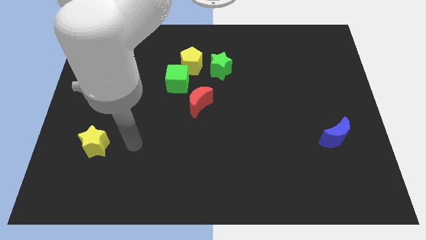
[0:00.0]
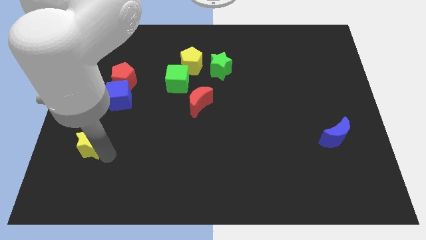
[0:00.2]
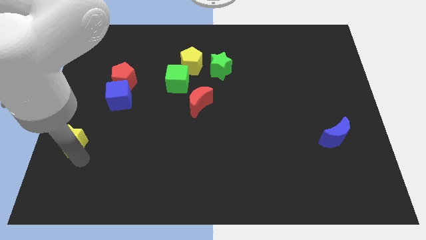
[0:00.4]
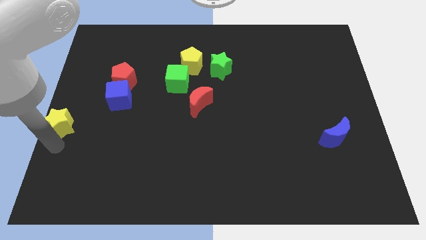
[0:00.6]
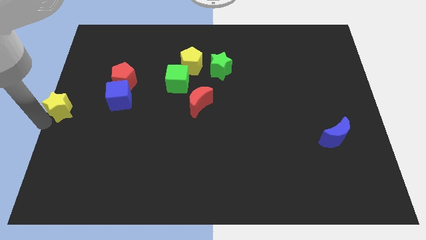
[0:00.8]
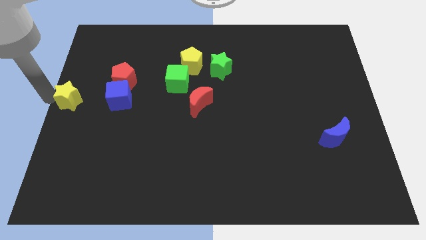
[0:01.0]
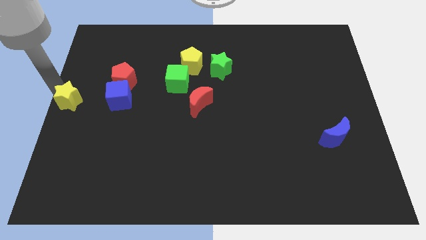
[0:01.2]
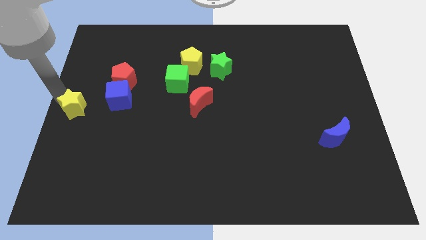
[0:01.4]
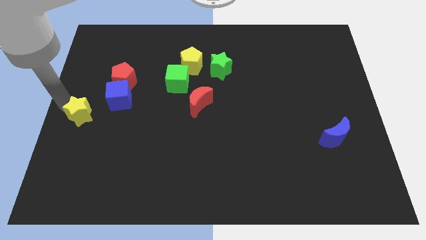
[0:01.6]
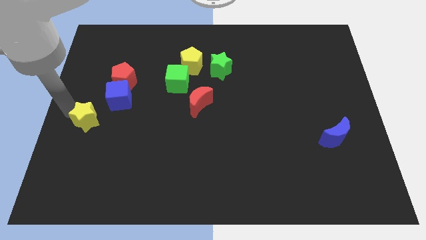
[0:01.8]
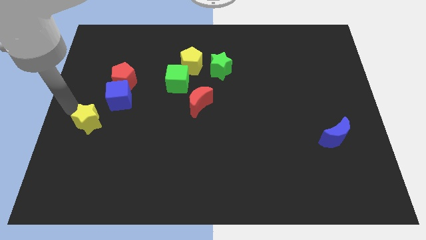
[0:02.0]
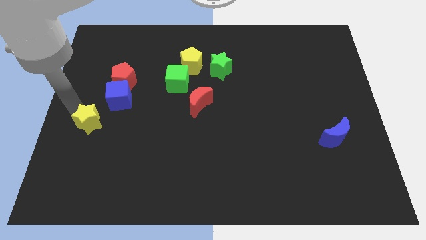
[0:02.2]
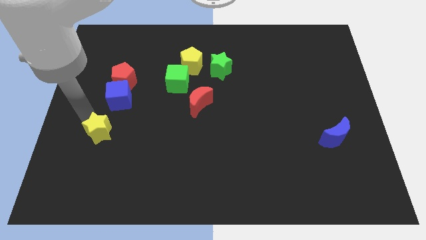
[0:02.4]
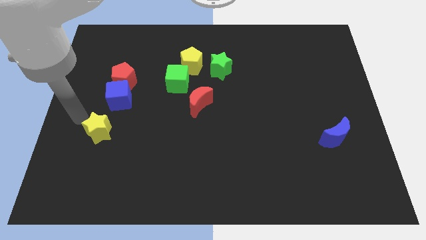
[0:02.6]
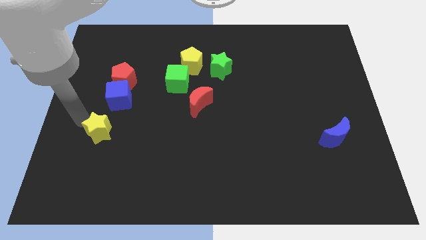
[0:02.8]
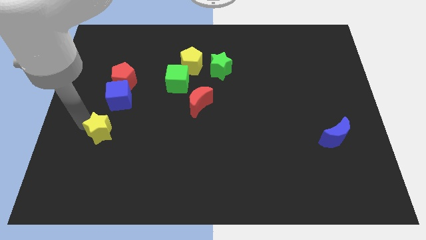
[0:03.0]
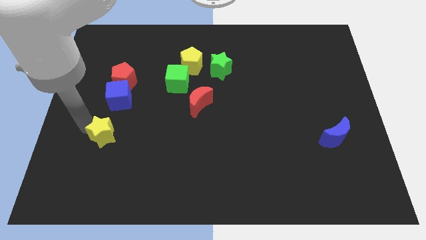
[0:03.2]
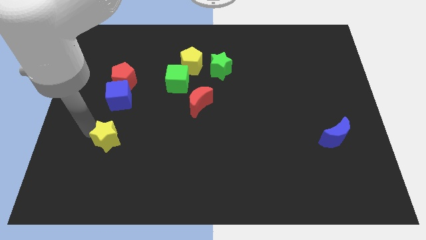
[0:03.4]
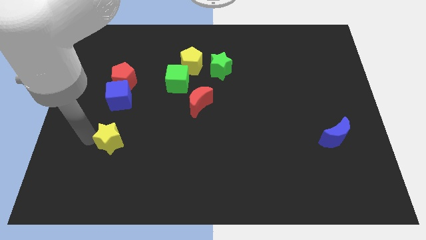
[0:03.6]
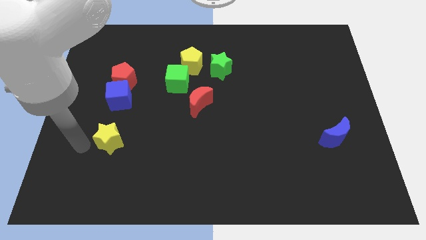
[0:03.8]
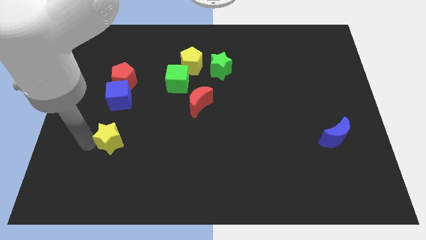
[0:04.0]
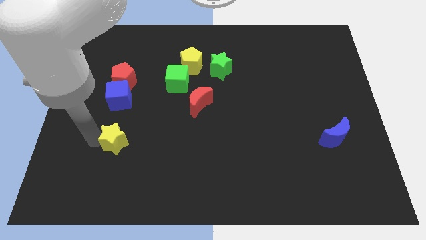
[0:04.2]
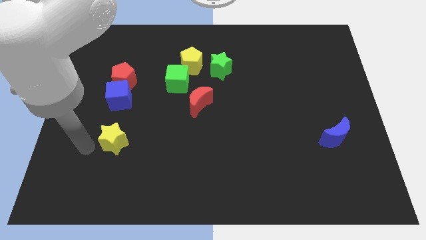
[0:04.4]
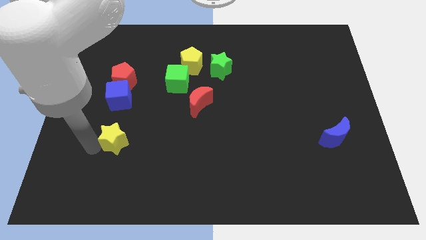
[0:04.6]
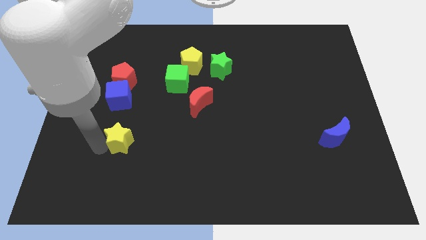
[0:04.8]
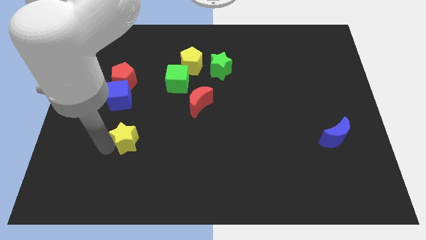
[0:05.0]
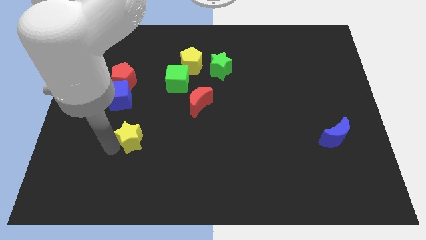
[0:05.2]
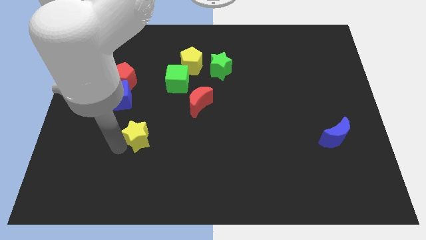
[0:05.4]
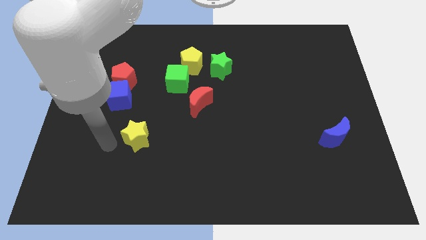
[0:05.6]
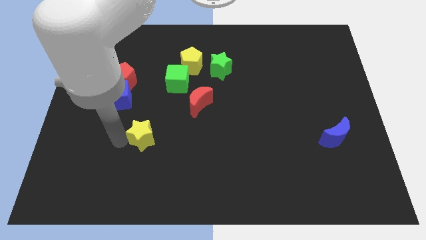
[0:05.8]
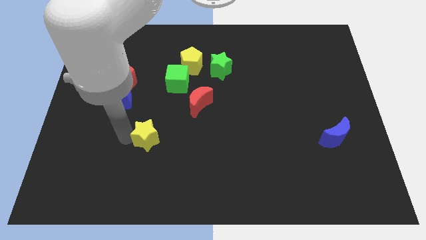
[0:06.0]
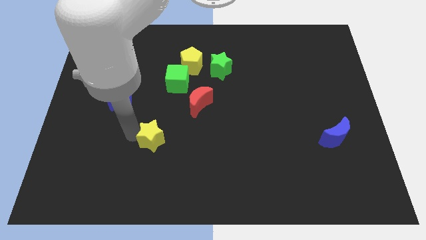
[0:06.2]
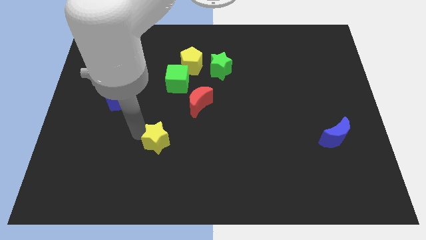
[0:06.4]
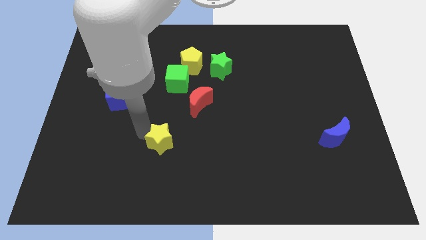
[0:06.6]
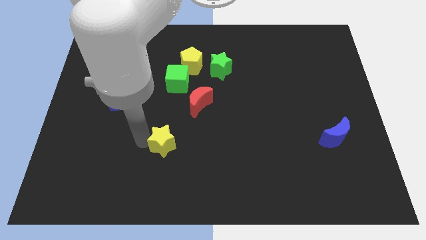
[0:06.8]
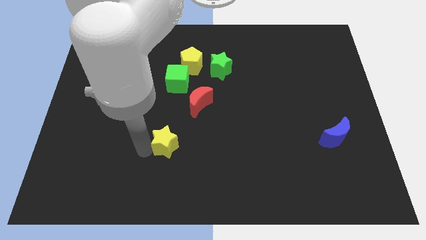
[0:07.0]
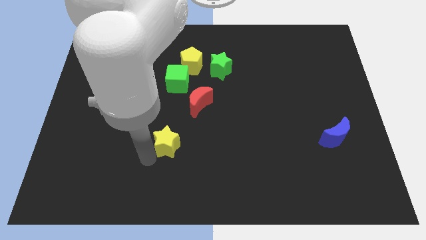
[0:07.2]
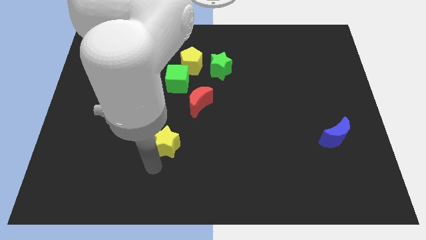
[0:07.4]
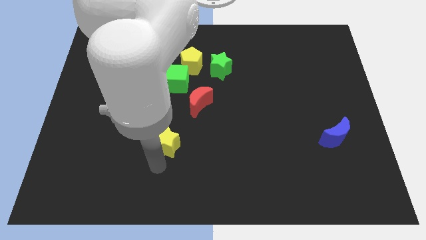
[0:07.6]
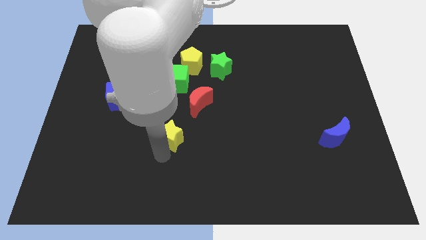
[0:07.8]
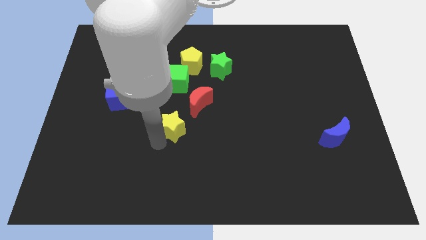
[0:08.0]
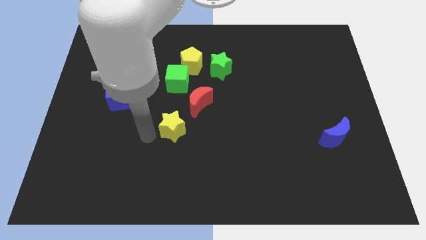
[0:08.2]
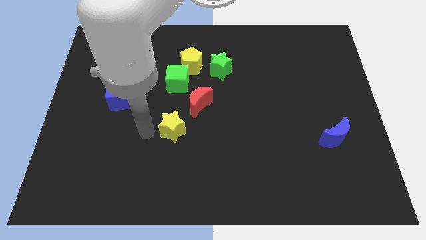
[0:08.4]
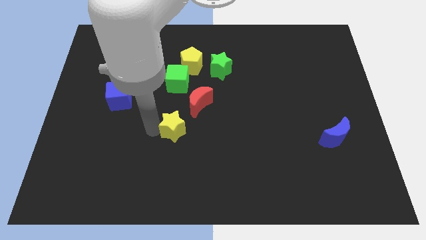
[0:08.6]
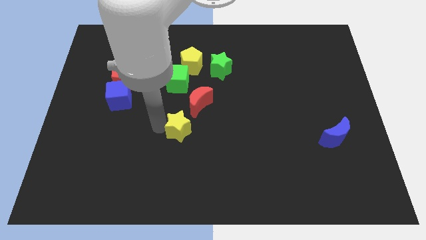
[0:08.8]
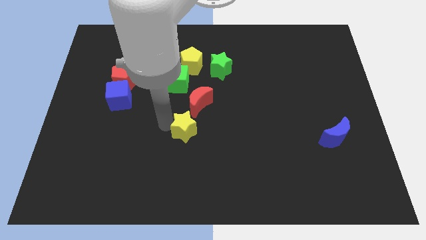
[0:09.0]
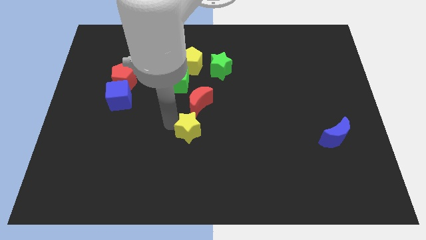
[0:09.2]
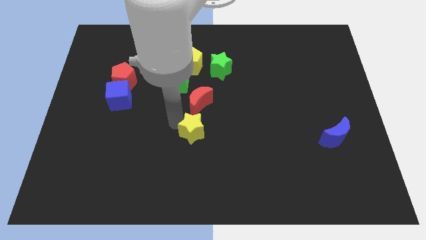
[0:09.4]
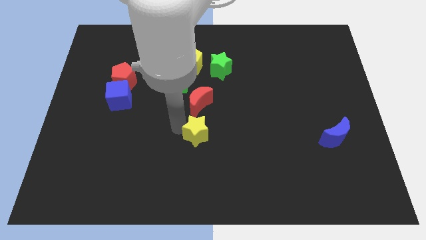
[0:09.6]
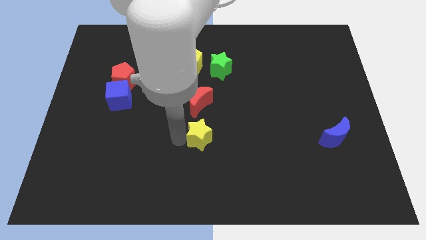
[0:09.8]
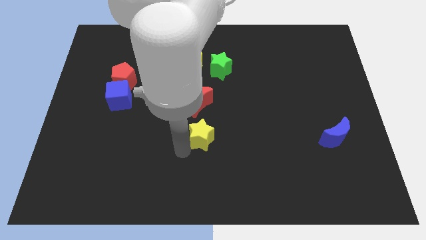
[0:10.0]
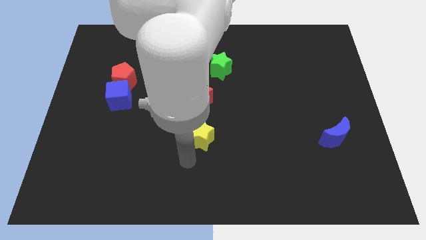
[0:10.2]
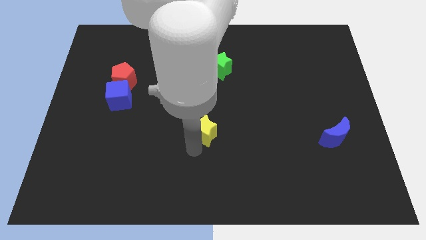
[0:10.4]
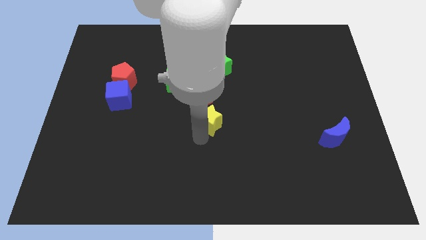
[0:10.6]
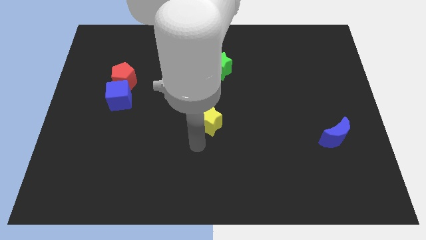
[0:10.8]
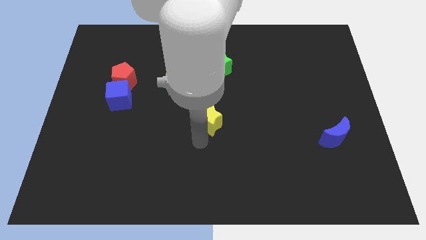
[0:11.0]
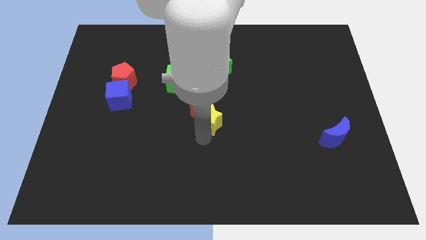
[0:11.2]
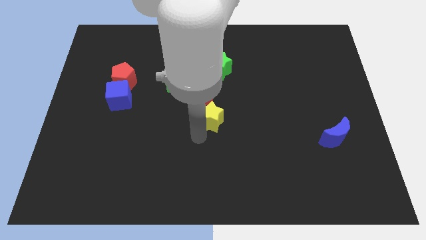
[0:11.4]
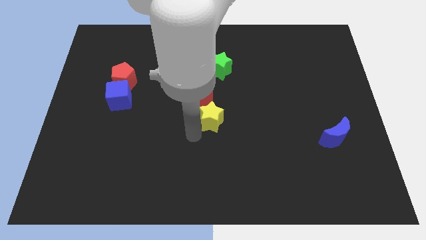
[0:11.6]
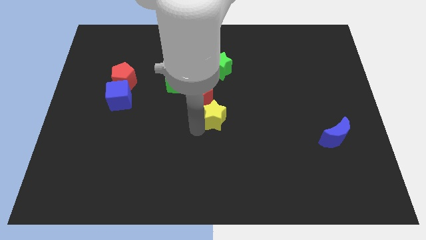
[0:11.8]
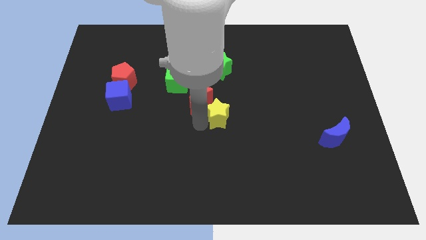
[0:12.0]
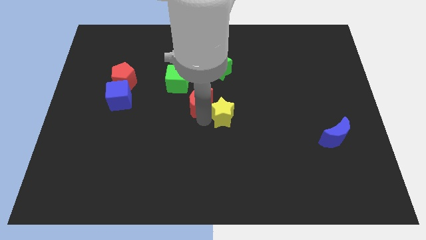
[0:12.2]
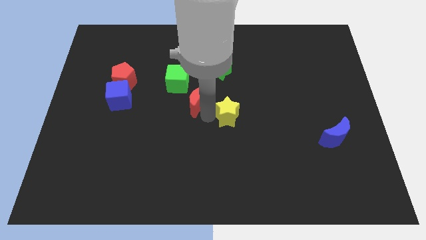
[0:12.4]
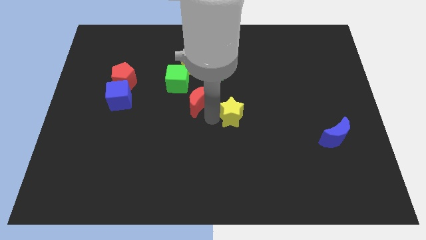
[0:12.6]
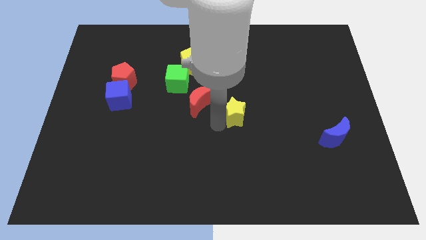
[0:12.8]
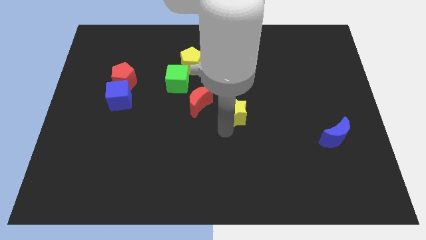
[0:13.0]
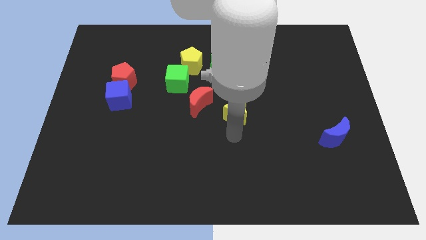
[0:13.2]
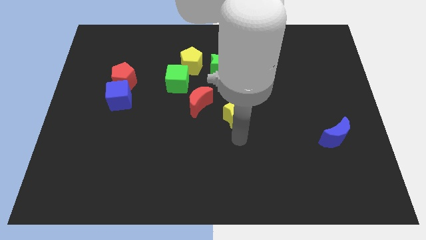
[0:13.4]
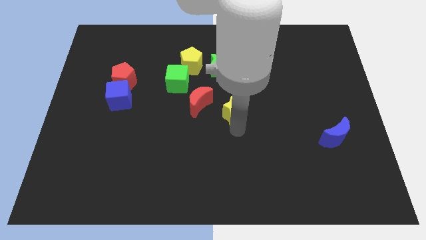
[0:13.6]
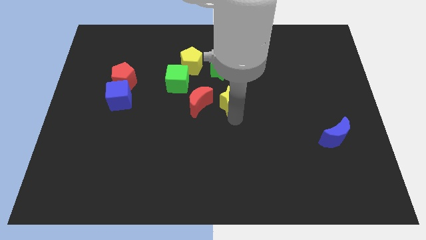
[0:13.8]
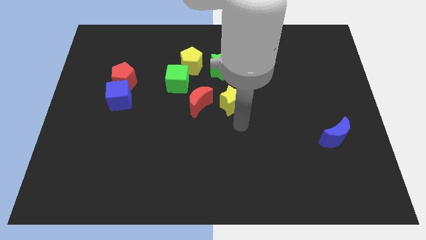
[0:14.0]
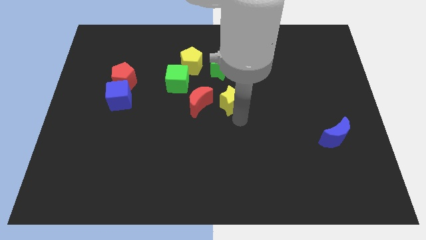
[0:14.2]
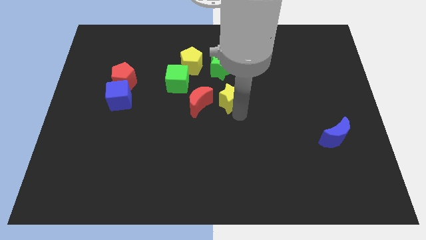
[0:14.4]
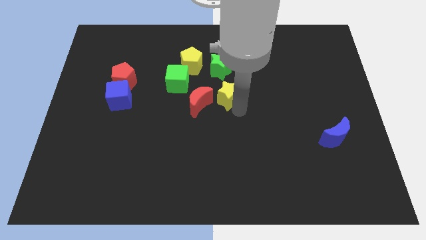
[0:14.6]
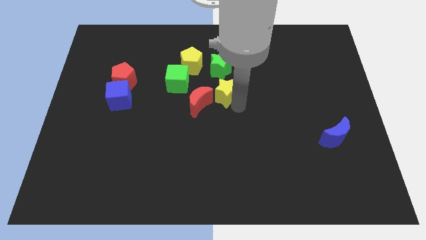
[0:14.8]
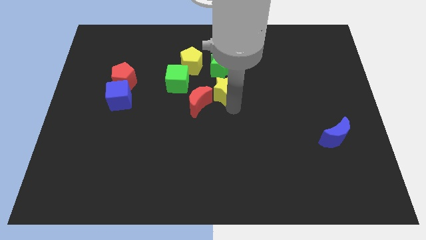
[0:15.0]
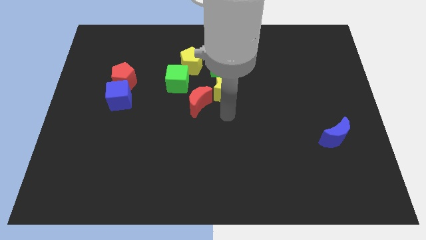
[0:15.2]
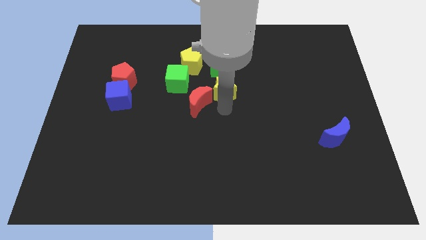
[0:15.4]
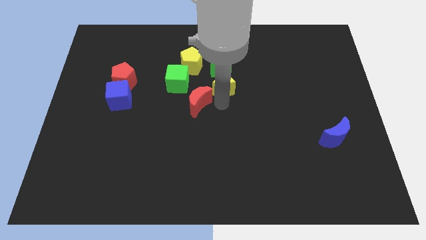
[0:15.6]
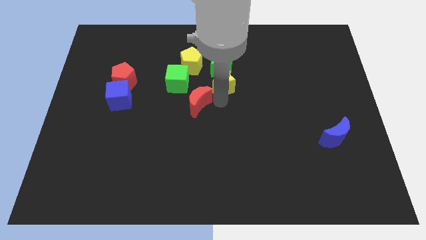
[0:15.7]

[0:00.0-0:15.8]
push the yellow star next to the green star
